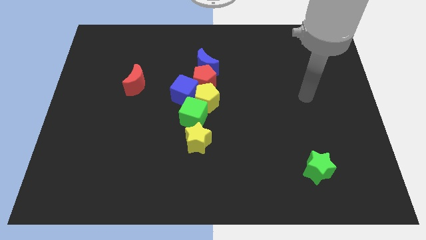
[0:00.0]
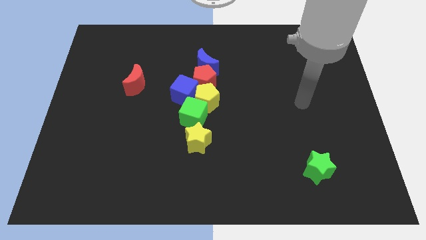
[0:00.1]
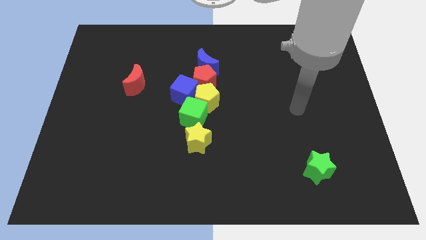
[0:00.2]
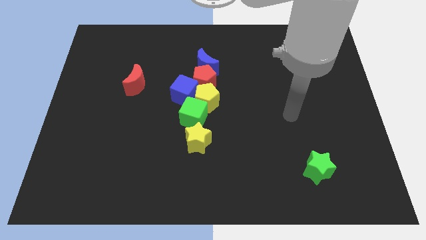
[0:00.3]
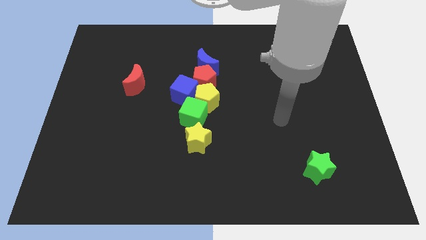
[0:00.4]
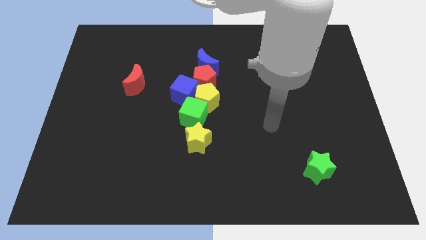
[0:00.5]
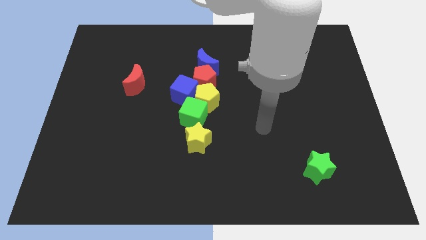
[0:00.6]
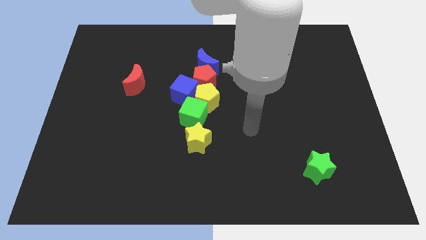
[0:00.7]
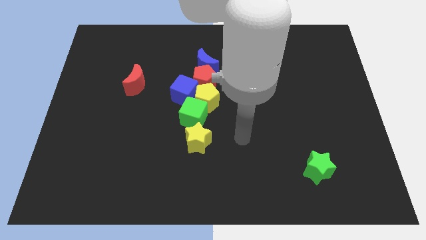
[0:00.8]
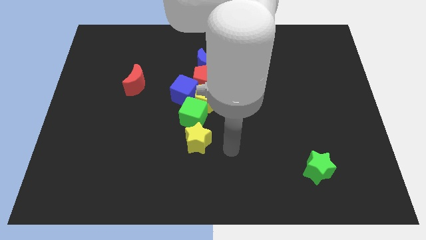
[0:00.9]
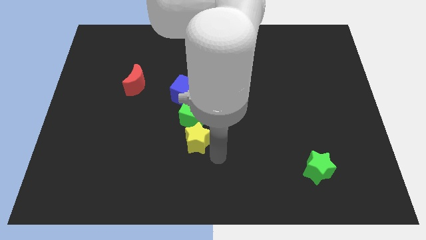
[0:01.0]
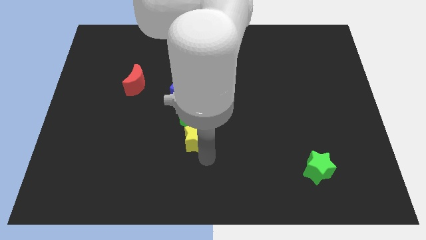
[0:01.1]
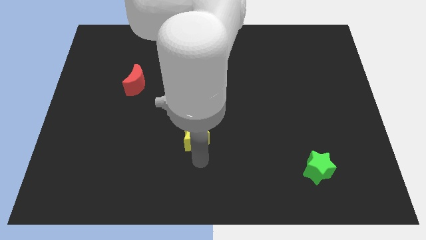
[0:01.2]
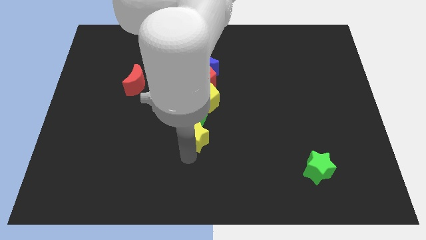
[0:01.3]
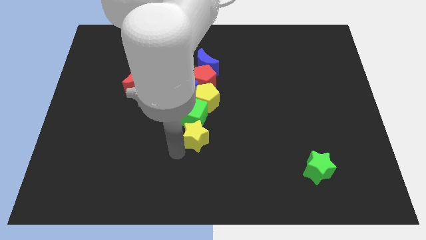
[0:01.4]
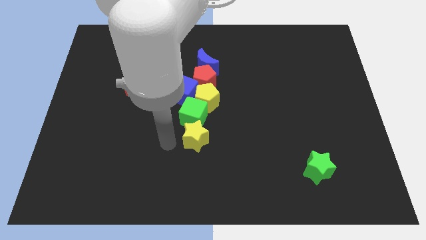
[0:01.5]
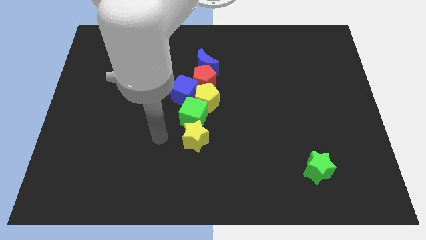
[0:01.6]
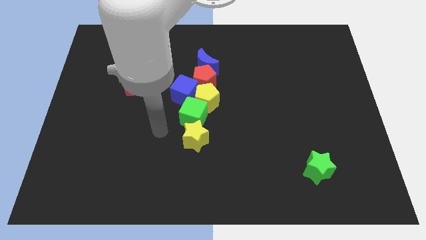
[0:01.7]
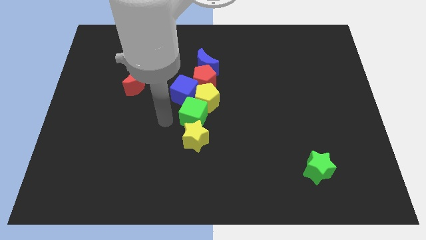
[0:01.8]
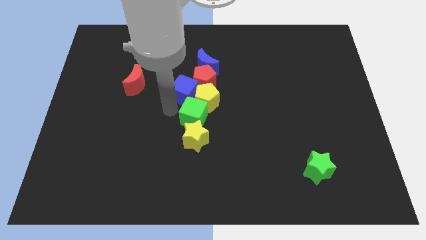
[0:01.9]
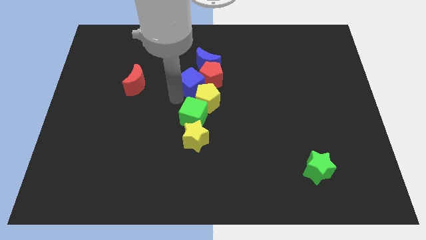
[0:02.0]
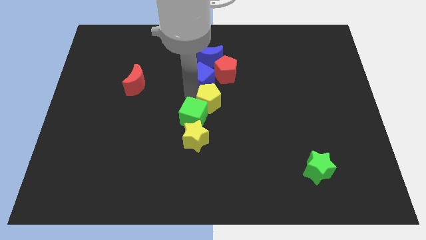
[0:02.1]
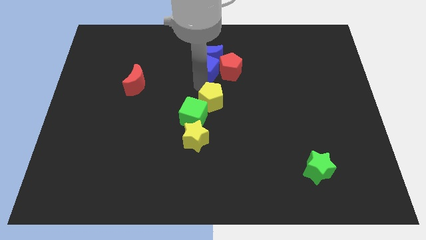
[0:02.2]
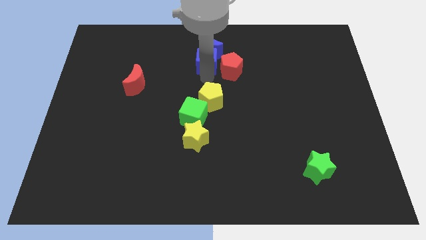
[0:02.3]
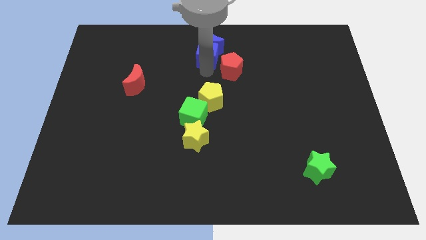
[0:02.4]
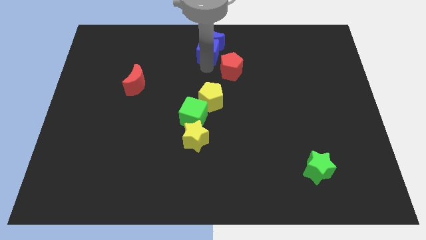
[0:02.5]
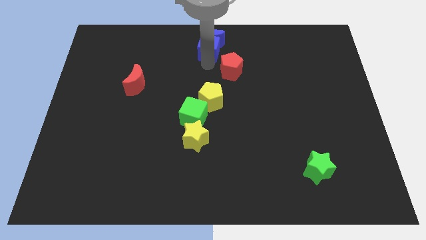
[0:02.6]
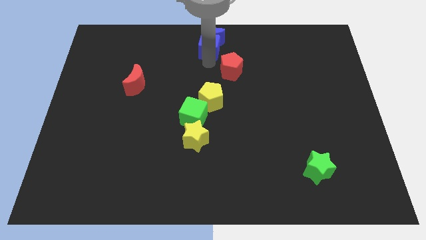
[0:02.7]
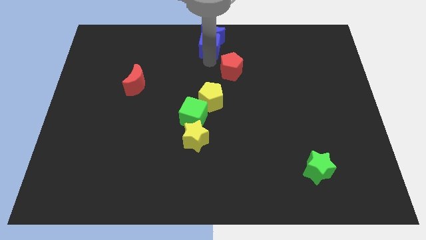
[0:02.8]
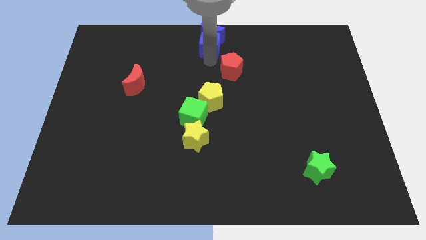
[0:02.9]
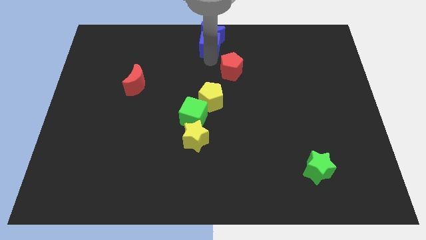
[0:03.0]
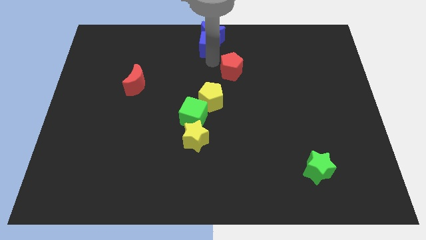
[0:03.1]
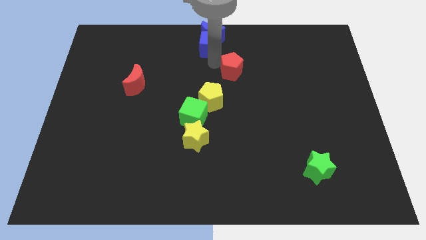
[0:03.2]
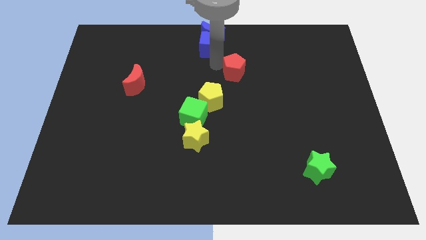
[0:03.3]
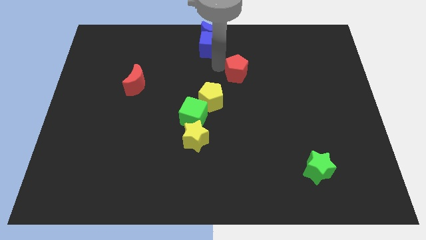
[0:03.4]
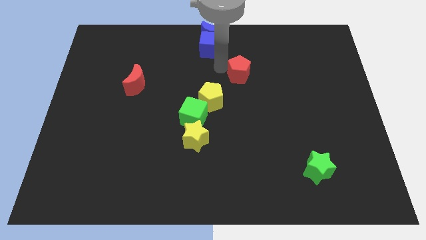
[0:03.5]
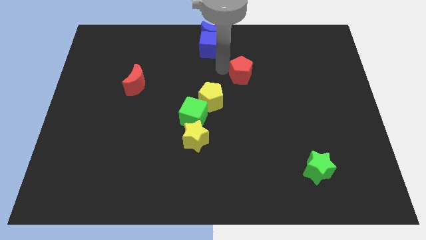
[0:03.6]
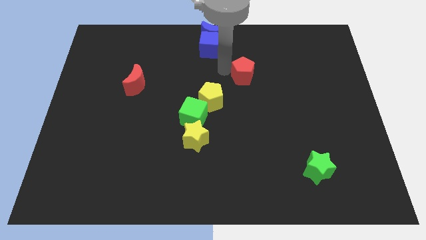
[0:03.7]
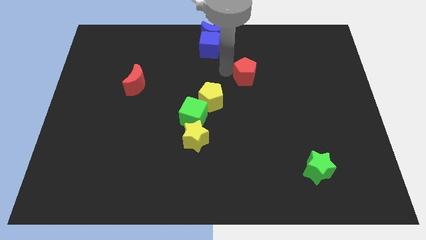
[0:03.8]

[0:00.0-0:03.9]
pull the red pentagon apart from the clump

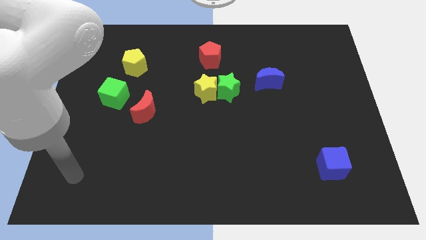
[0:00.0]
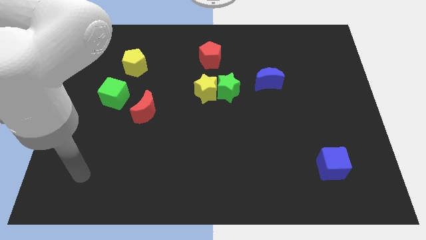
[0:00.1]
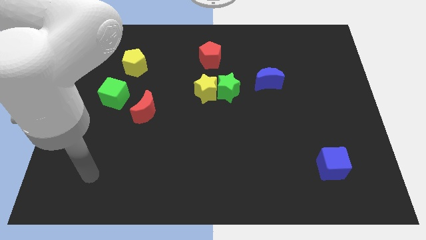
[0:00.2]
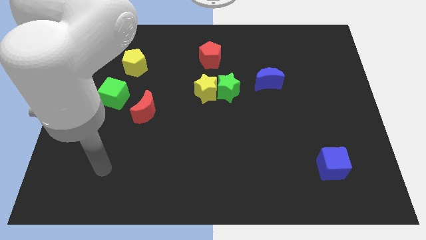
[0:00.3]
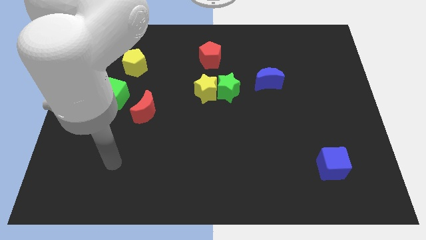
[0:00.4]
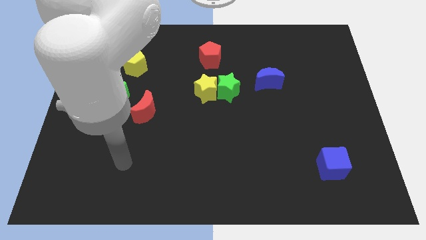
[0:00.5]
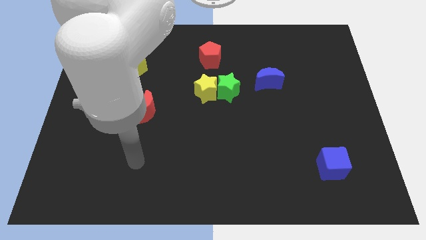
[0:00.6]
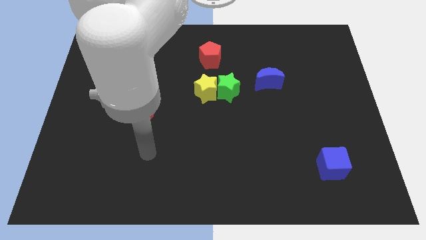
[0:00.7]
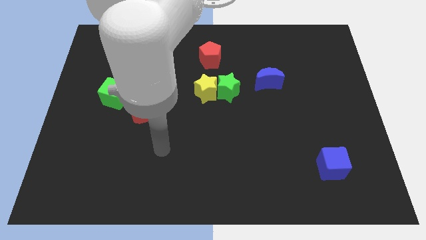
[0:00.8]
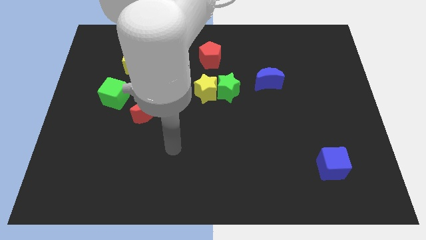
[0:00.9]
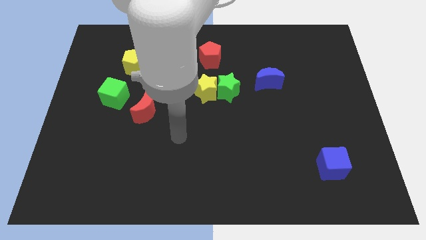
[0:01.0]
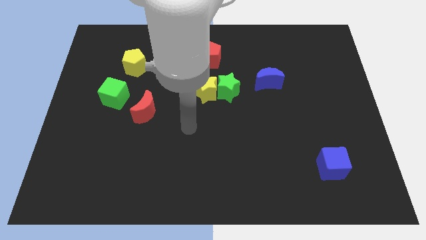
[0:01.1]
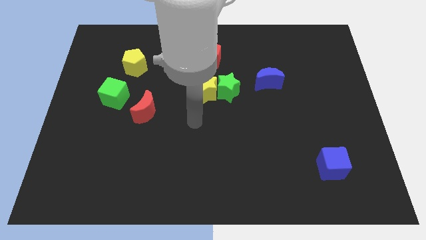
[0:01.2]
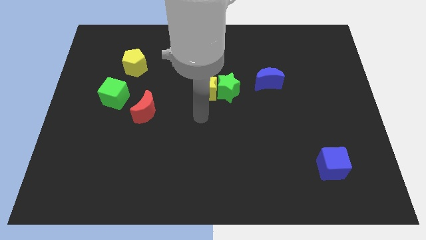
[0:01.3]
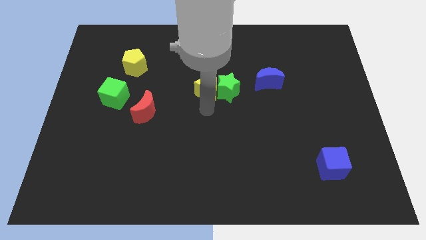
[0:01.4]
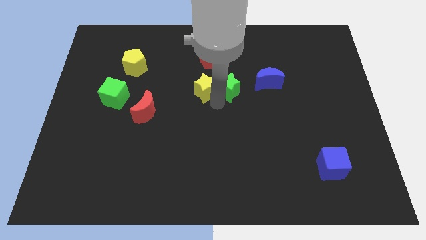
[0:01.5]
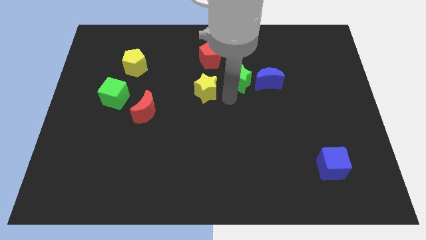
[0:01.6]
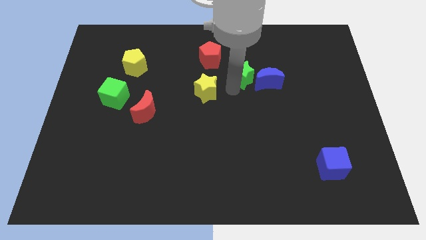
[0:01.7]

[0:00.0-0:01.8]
move the yellow star away from the green star

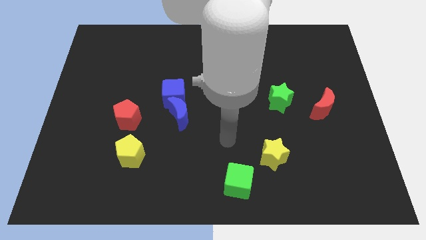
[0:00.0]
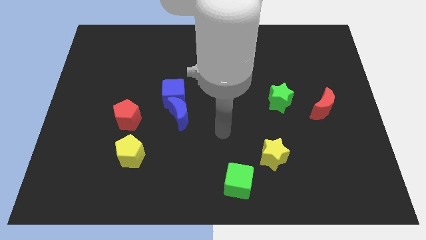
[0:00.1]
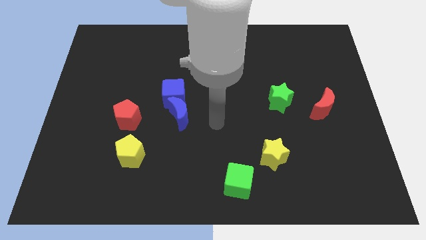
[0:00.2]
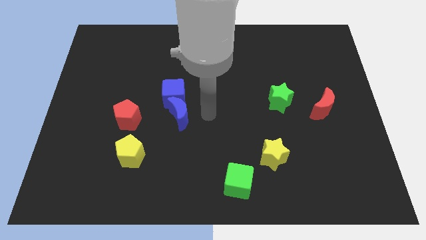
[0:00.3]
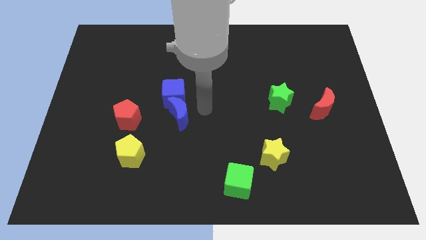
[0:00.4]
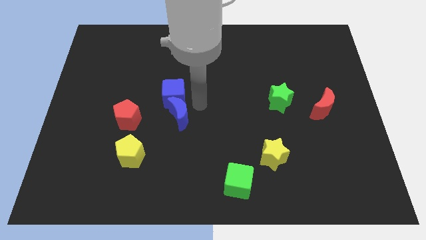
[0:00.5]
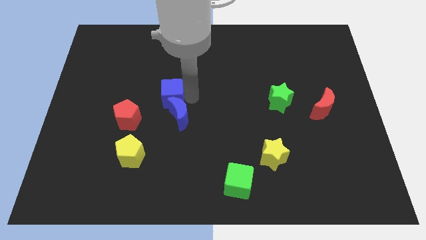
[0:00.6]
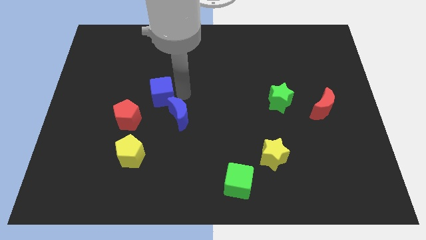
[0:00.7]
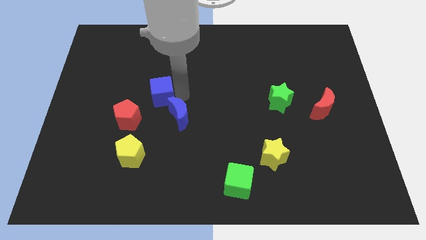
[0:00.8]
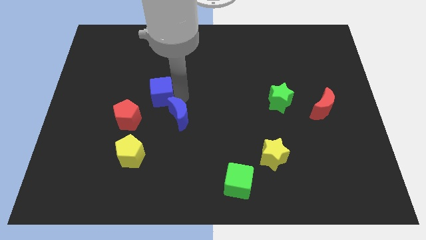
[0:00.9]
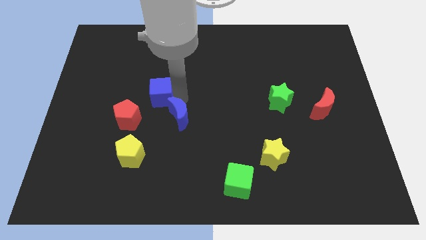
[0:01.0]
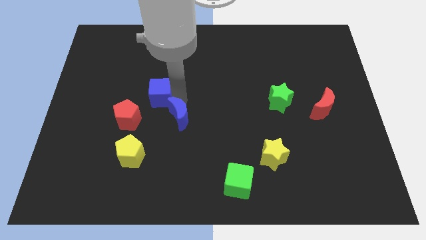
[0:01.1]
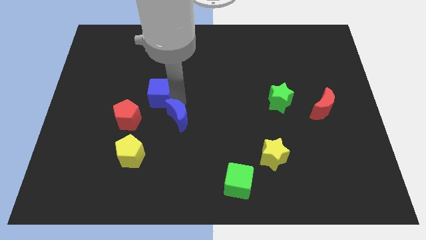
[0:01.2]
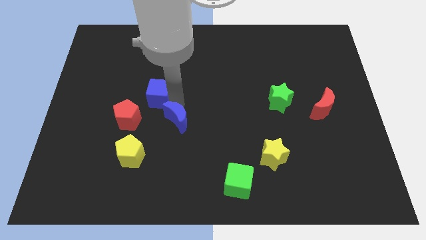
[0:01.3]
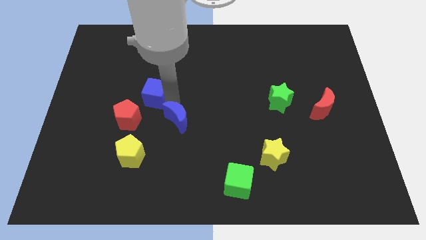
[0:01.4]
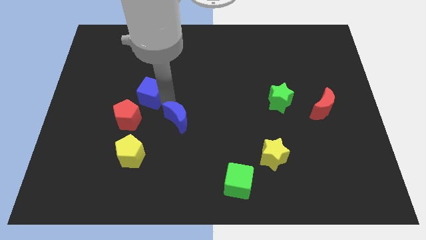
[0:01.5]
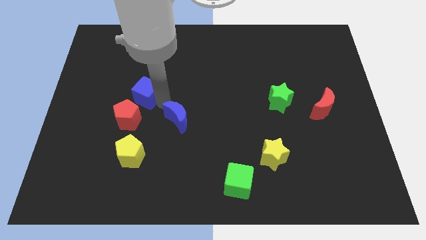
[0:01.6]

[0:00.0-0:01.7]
pull the blue moon apart from the blue cube

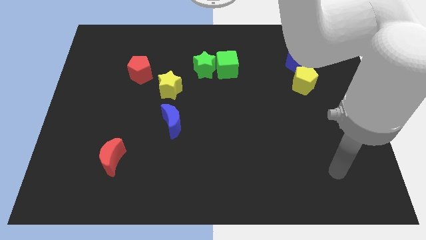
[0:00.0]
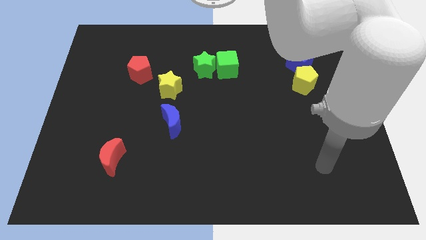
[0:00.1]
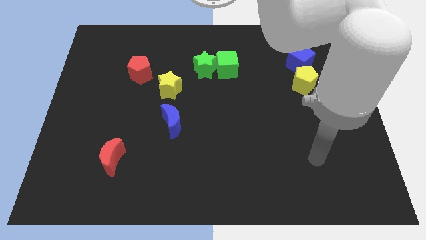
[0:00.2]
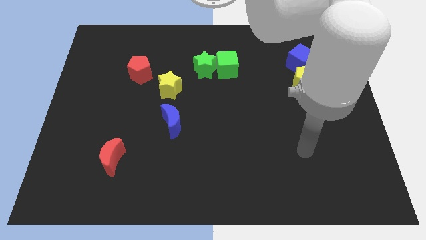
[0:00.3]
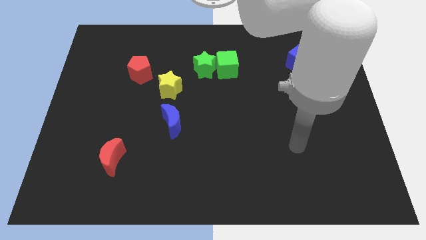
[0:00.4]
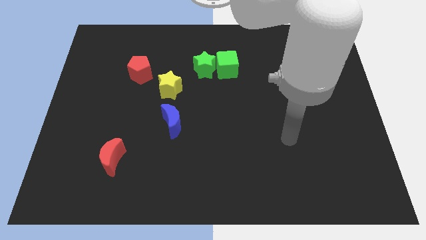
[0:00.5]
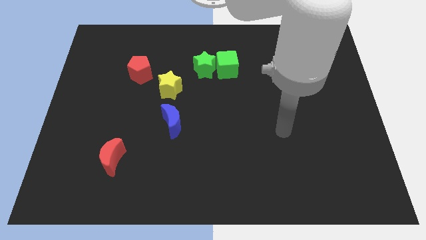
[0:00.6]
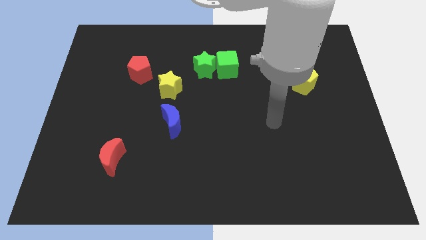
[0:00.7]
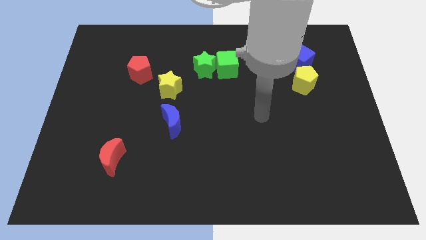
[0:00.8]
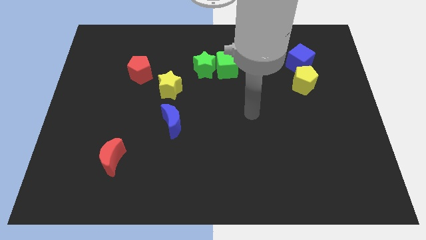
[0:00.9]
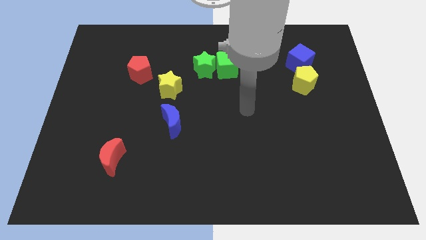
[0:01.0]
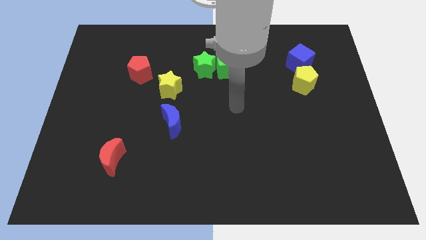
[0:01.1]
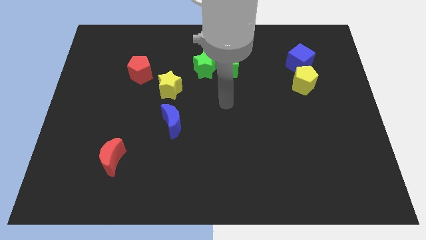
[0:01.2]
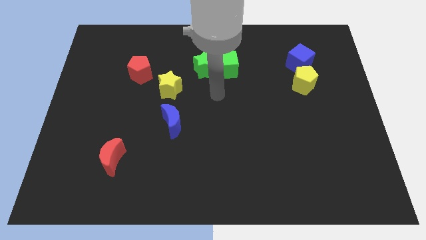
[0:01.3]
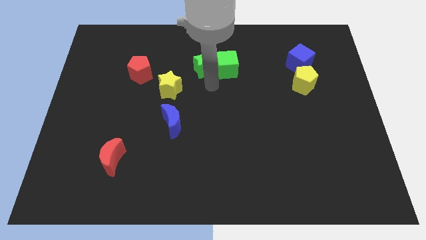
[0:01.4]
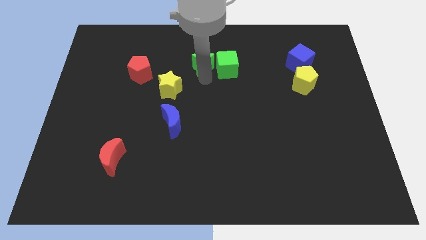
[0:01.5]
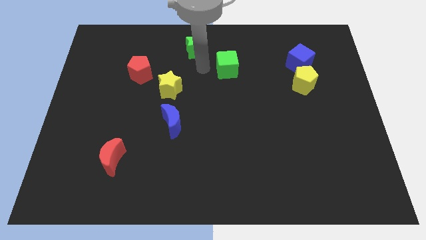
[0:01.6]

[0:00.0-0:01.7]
pull the green cube apart from the green star

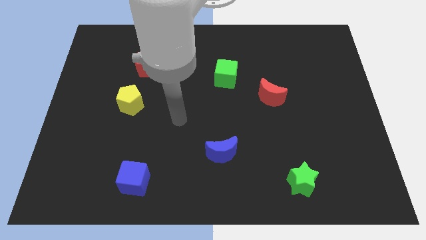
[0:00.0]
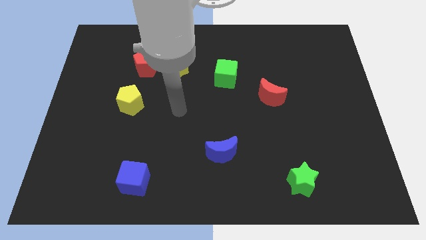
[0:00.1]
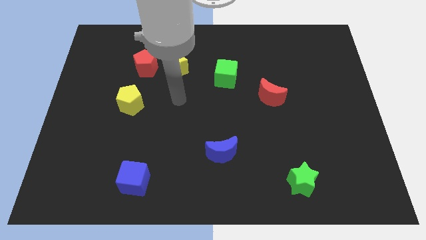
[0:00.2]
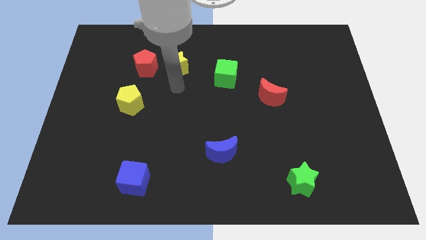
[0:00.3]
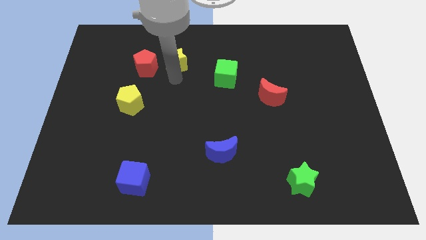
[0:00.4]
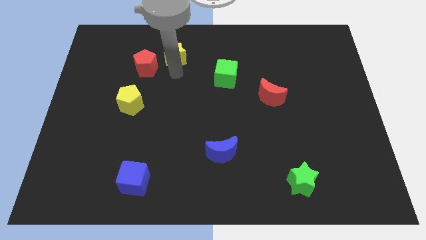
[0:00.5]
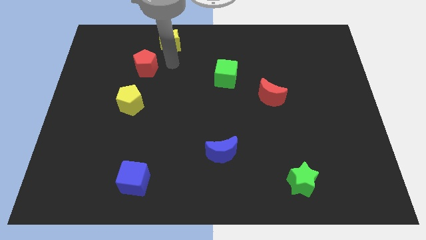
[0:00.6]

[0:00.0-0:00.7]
move the red pentagon away from the yellow star
